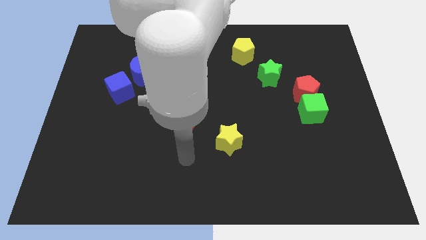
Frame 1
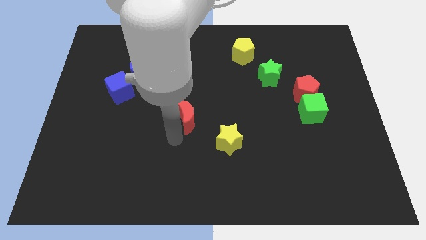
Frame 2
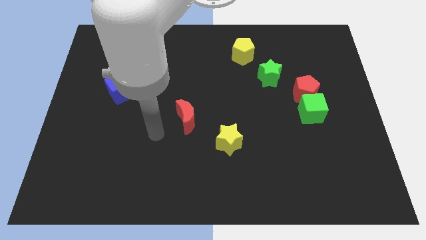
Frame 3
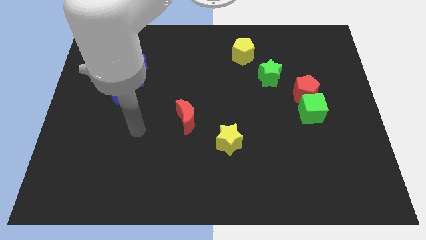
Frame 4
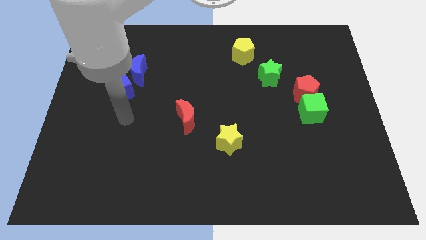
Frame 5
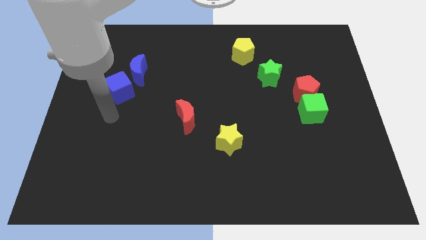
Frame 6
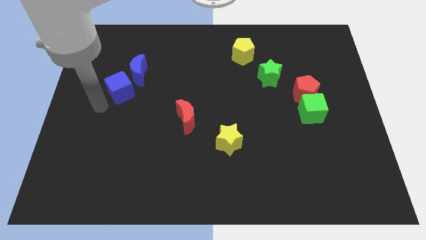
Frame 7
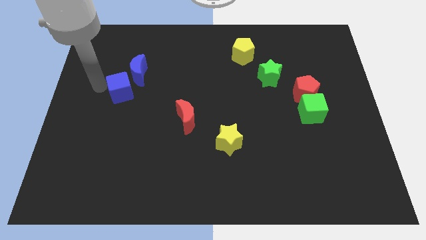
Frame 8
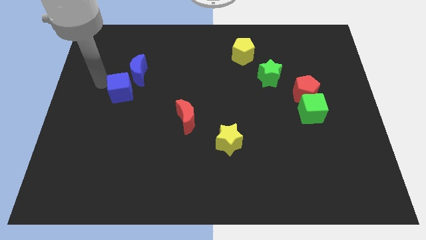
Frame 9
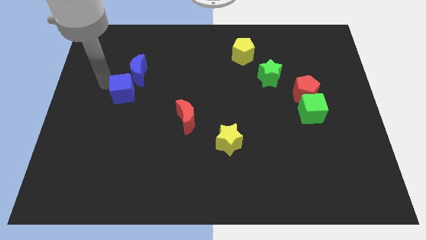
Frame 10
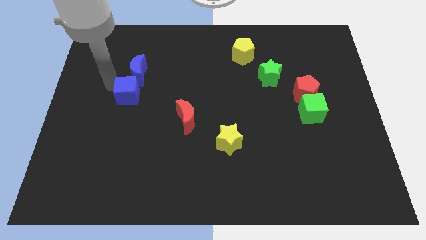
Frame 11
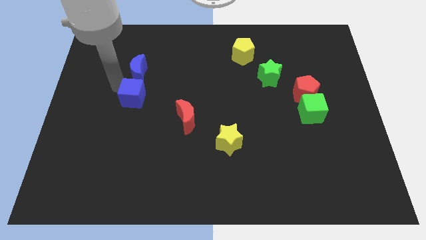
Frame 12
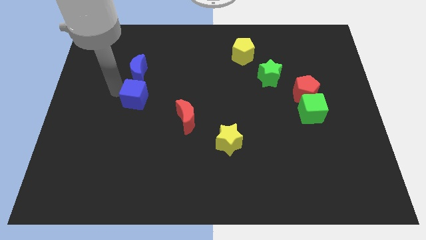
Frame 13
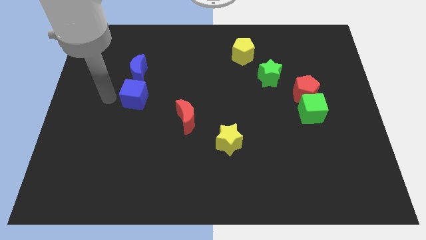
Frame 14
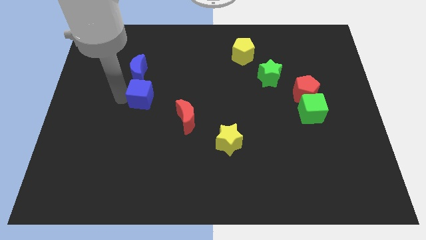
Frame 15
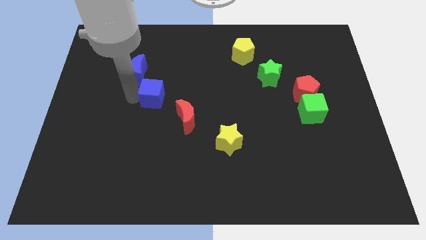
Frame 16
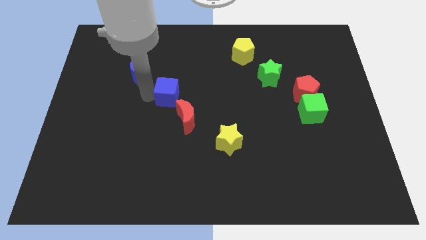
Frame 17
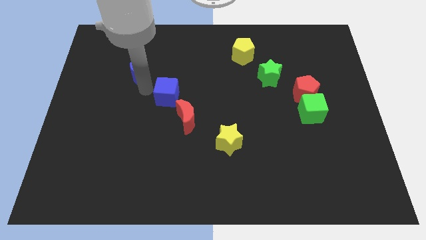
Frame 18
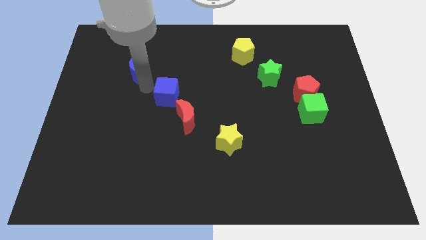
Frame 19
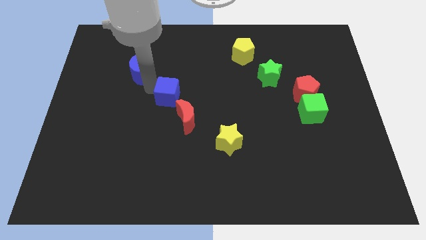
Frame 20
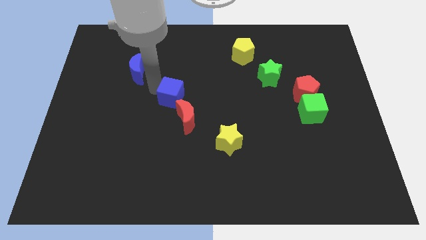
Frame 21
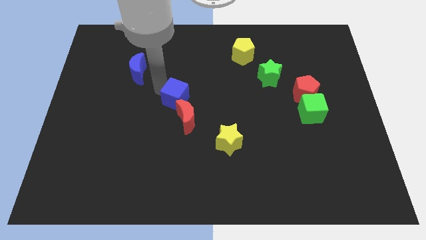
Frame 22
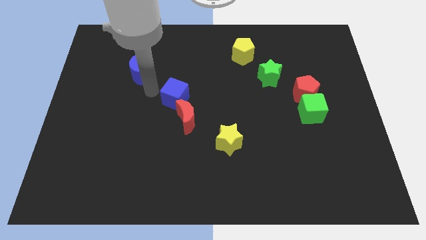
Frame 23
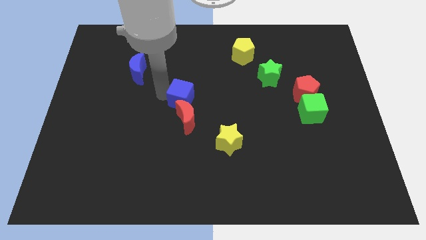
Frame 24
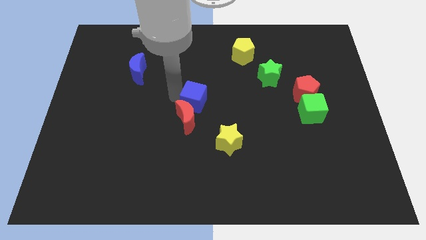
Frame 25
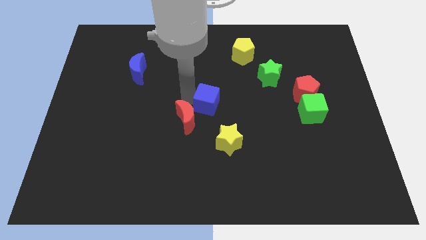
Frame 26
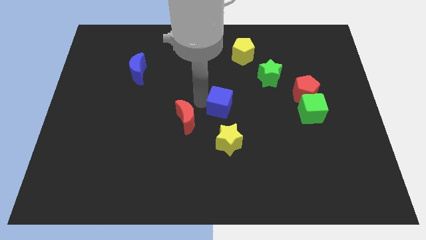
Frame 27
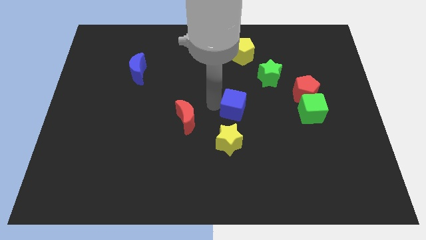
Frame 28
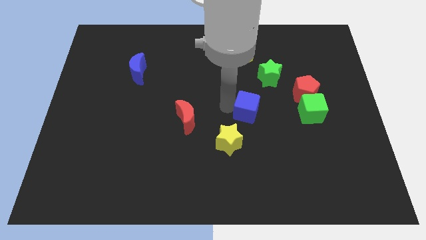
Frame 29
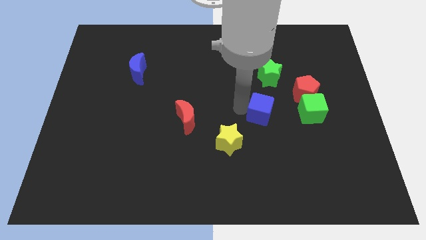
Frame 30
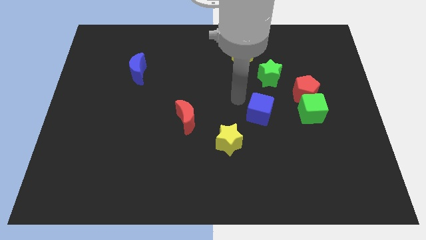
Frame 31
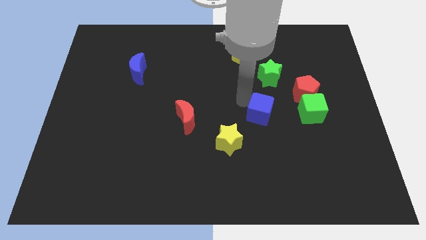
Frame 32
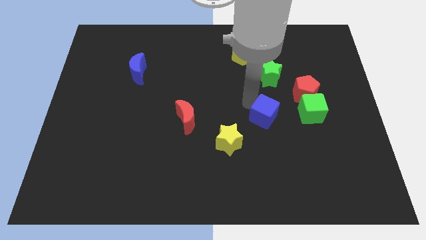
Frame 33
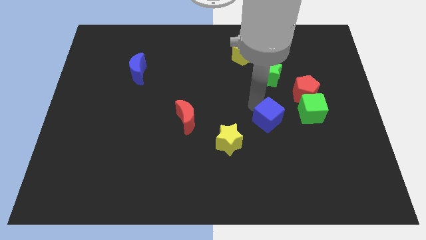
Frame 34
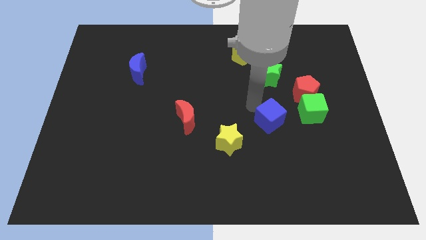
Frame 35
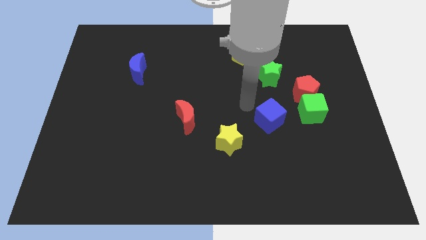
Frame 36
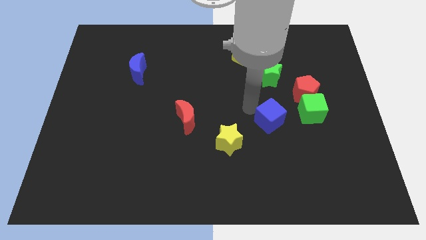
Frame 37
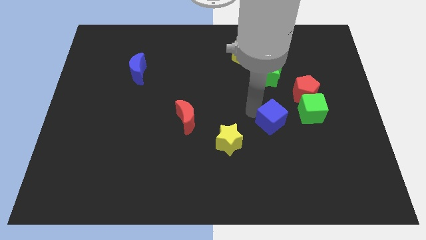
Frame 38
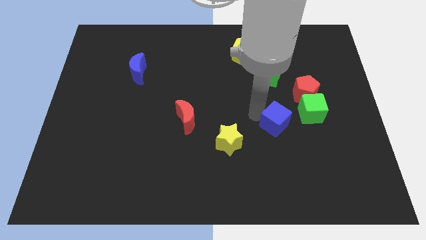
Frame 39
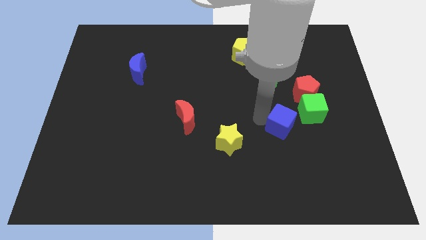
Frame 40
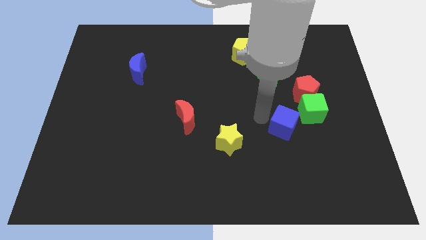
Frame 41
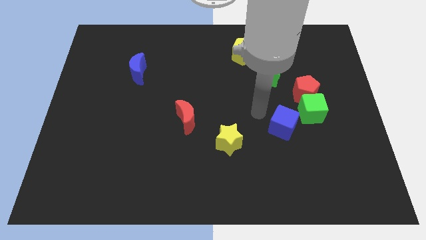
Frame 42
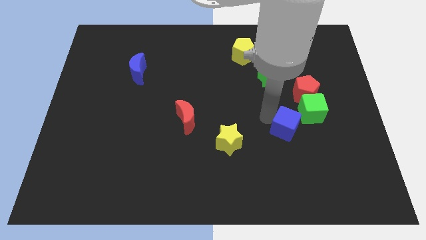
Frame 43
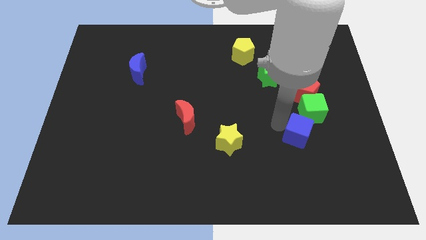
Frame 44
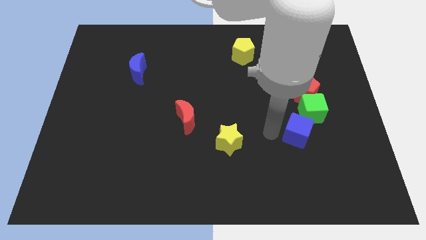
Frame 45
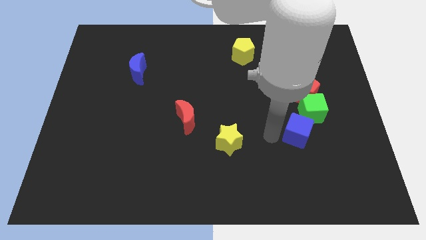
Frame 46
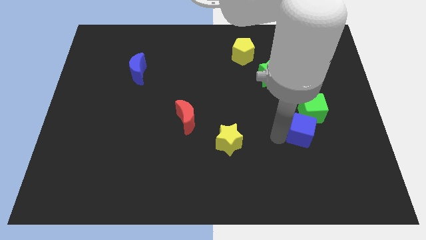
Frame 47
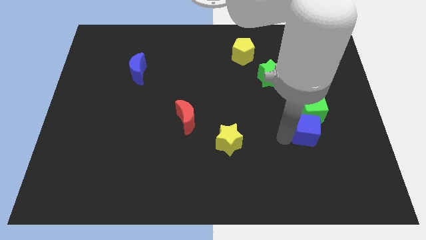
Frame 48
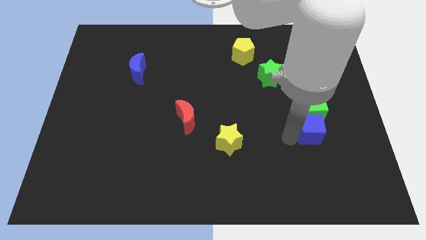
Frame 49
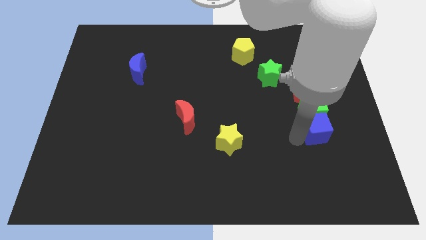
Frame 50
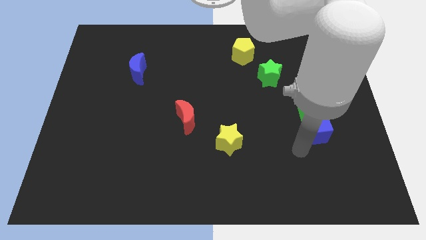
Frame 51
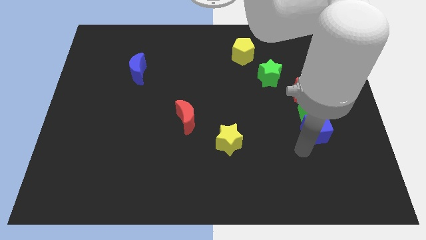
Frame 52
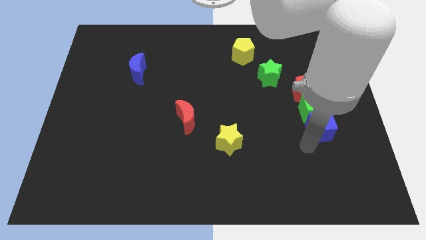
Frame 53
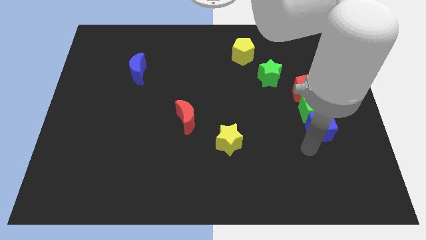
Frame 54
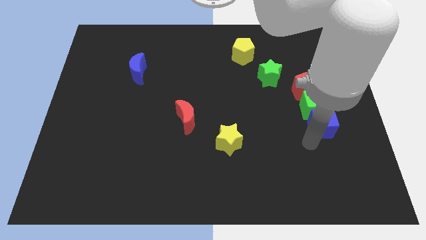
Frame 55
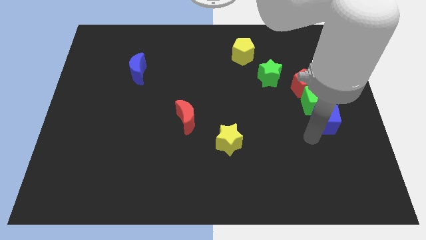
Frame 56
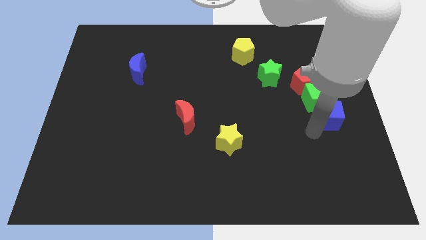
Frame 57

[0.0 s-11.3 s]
slide the blue cube to the bottom right of the red pentagon

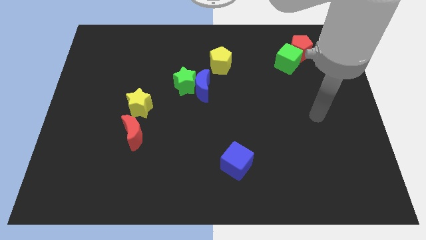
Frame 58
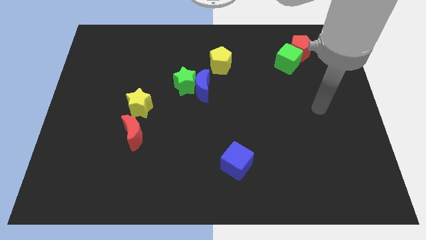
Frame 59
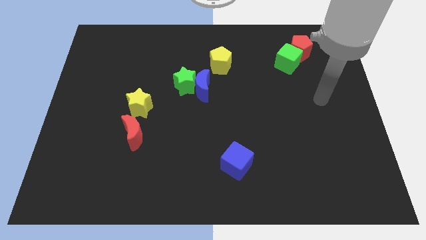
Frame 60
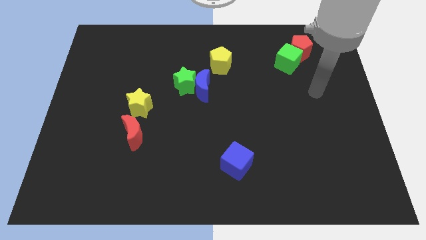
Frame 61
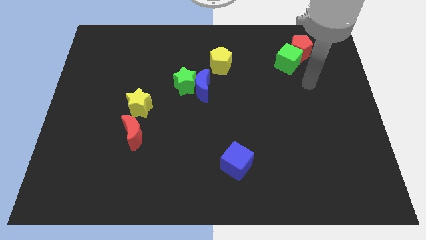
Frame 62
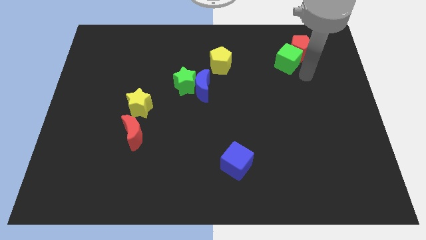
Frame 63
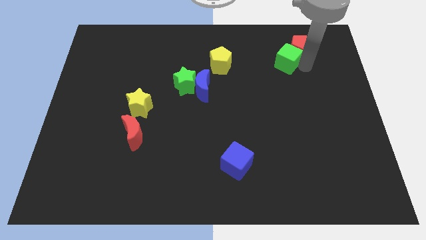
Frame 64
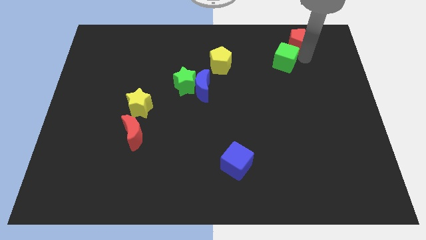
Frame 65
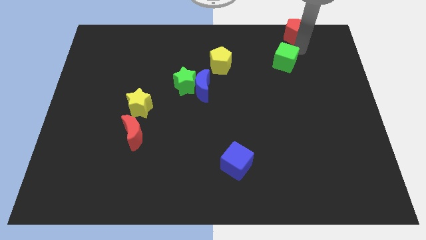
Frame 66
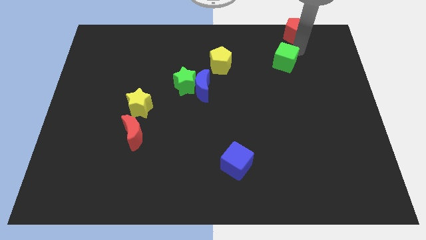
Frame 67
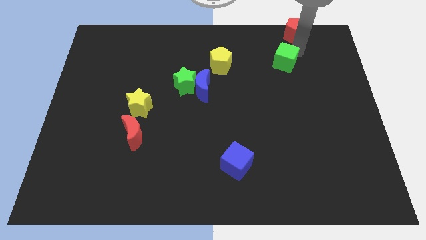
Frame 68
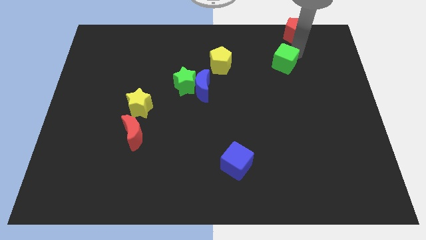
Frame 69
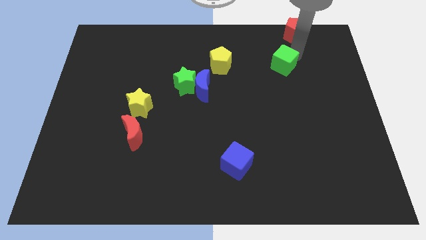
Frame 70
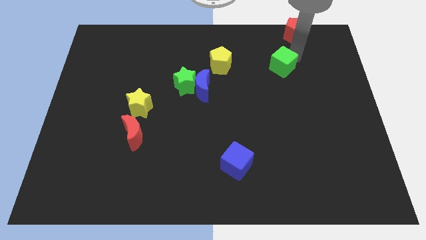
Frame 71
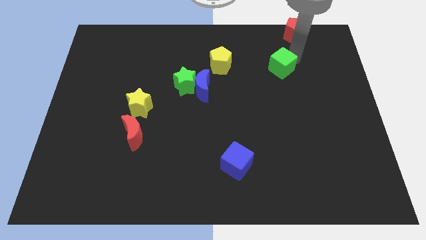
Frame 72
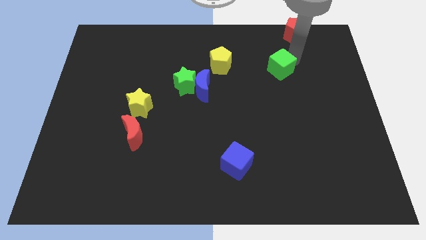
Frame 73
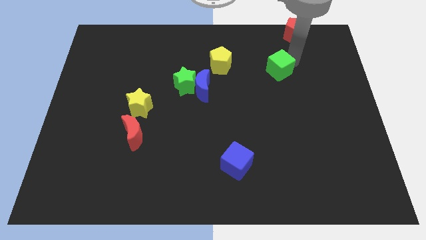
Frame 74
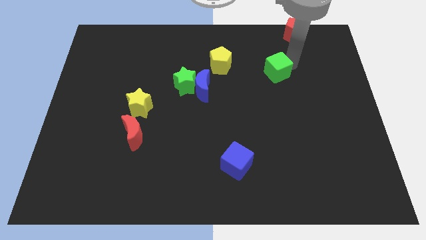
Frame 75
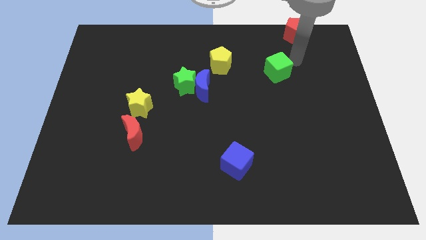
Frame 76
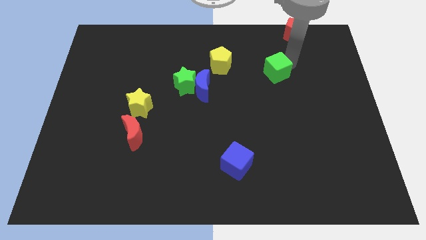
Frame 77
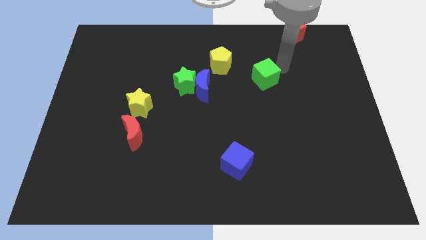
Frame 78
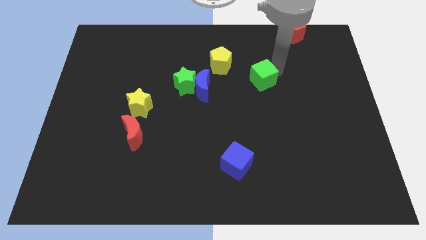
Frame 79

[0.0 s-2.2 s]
move the green cube to the right of the blue moon
